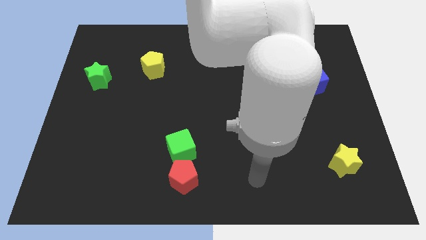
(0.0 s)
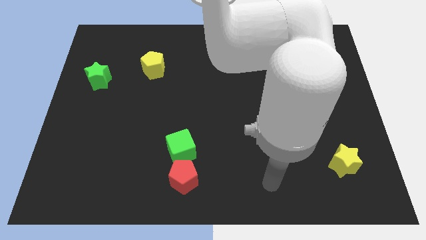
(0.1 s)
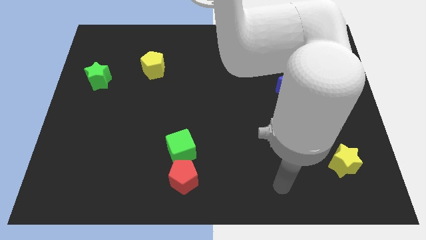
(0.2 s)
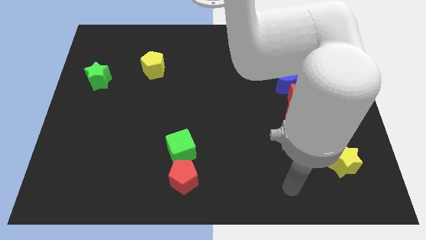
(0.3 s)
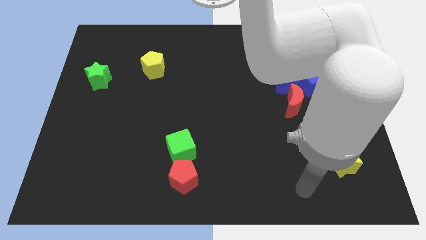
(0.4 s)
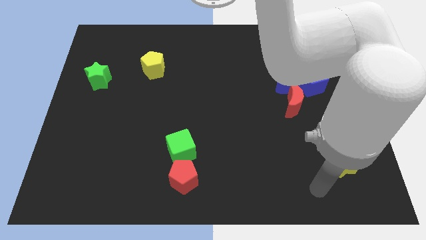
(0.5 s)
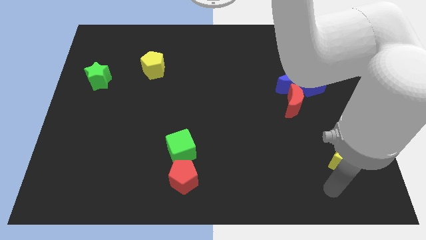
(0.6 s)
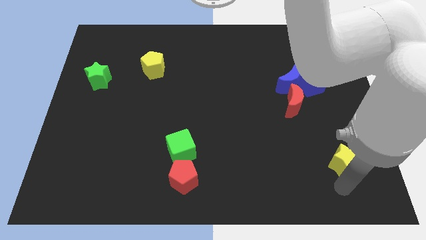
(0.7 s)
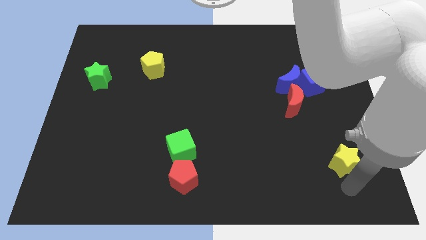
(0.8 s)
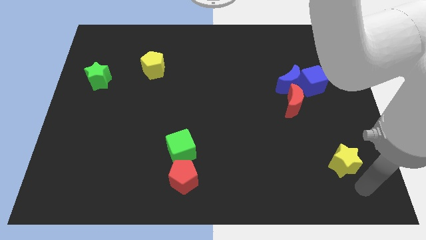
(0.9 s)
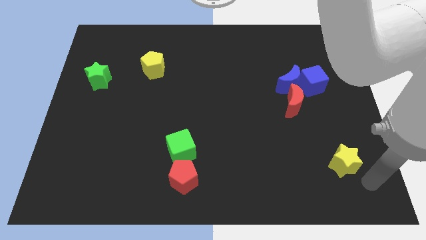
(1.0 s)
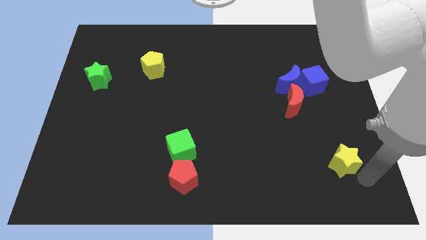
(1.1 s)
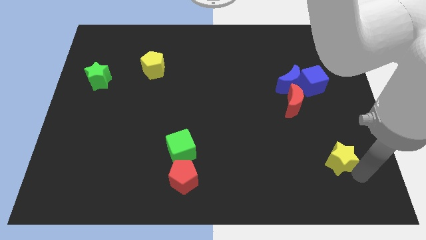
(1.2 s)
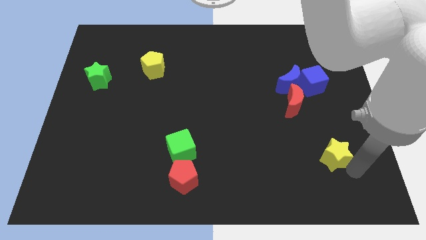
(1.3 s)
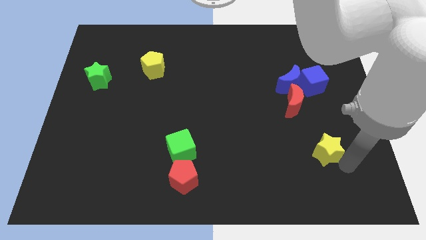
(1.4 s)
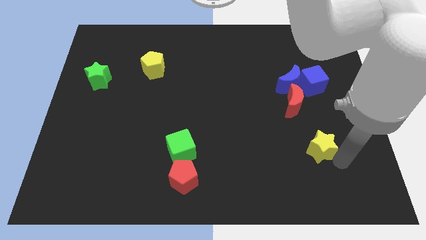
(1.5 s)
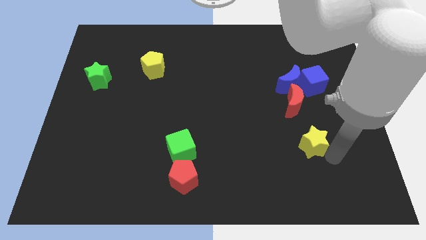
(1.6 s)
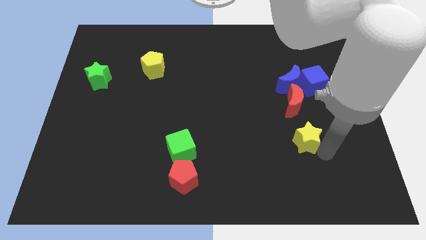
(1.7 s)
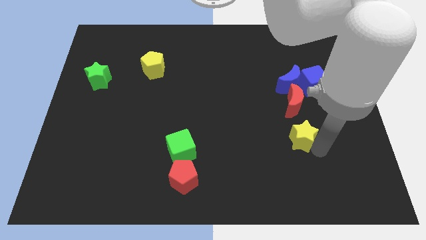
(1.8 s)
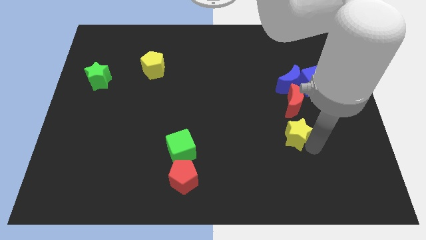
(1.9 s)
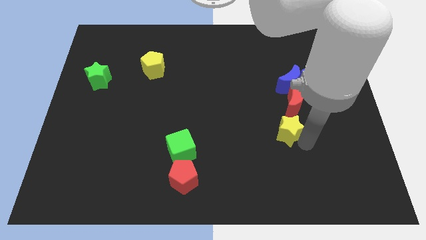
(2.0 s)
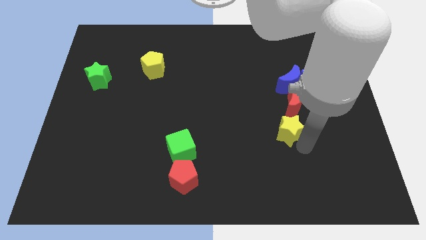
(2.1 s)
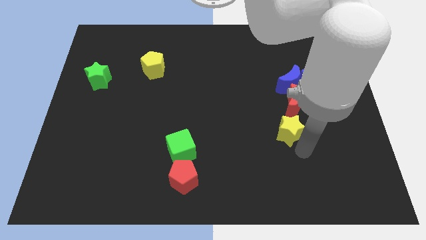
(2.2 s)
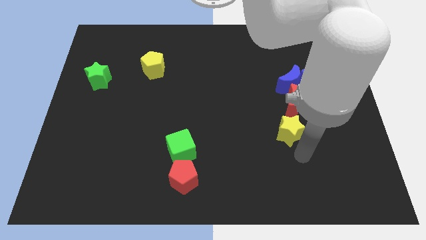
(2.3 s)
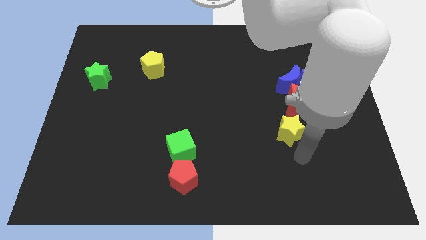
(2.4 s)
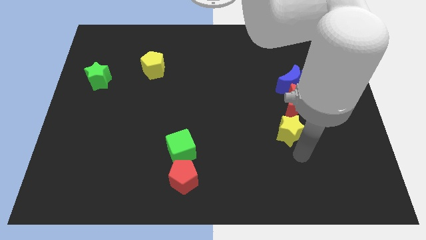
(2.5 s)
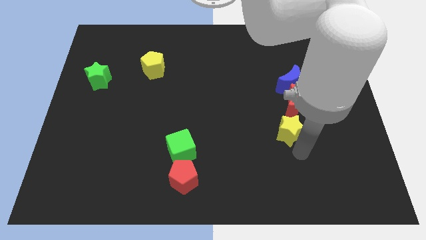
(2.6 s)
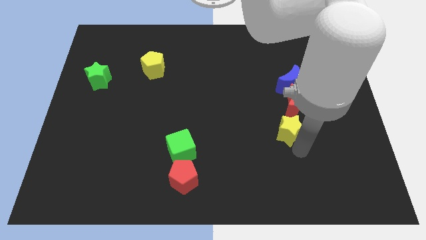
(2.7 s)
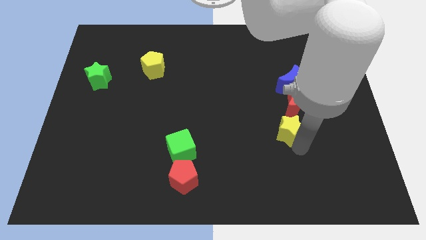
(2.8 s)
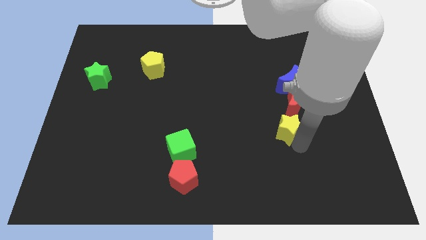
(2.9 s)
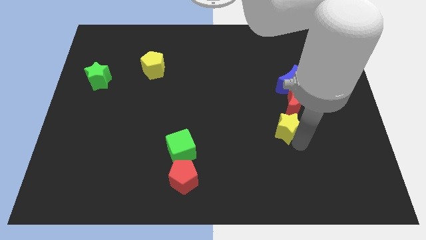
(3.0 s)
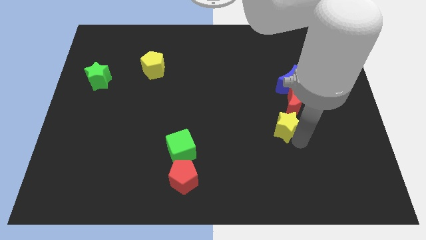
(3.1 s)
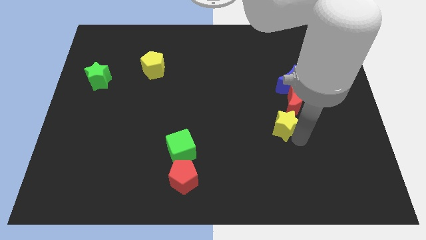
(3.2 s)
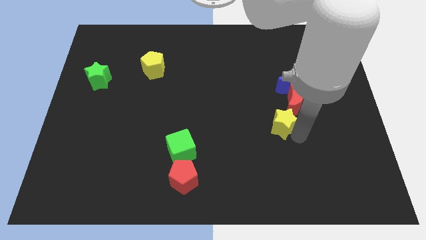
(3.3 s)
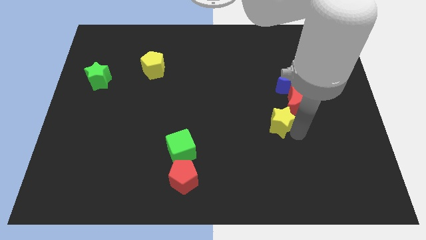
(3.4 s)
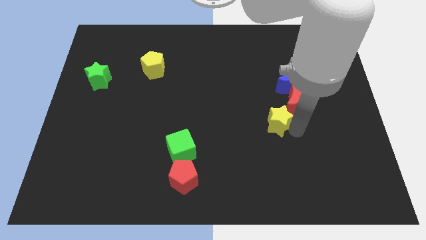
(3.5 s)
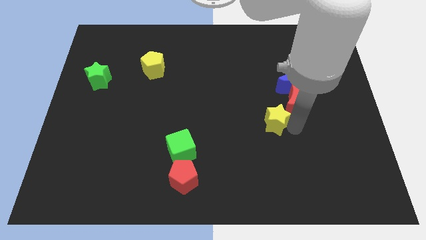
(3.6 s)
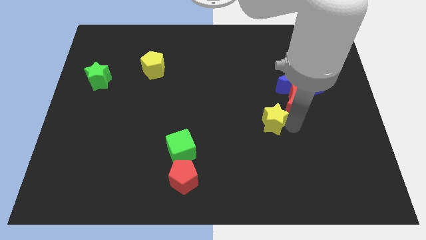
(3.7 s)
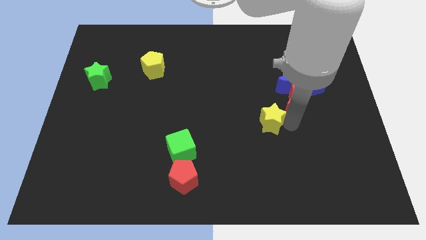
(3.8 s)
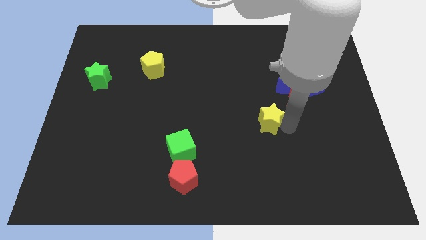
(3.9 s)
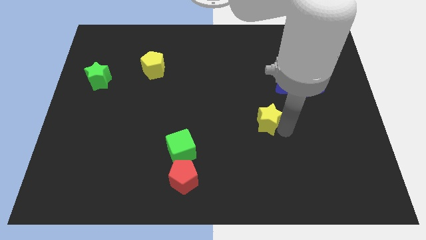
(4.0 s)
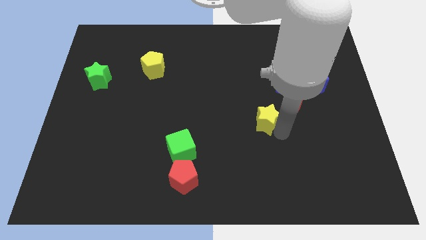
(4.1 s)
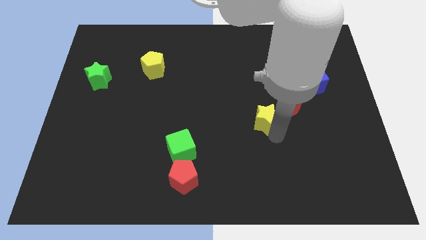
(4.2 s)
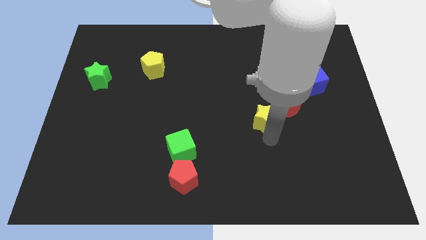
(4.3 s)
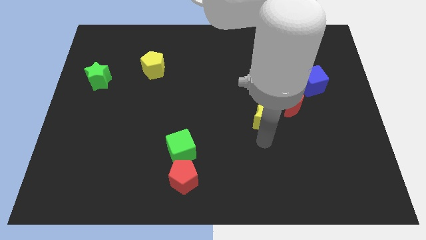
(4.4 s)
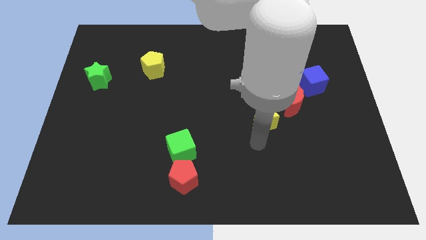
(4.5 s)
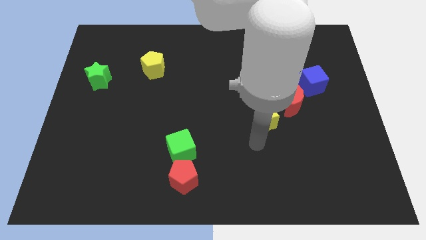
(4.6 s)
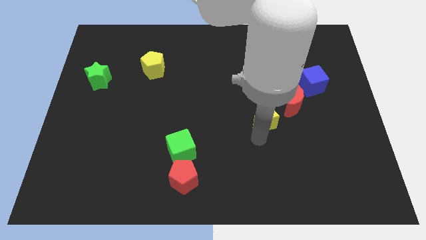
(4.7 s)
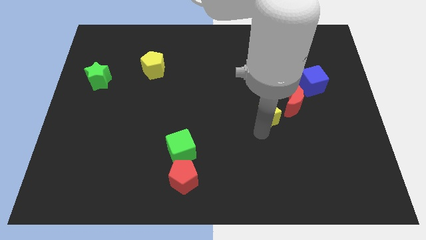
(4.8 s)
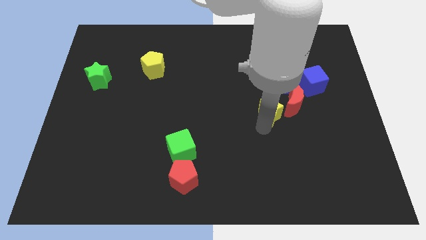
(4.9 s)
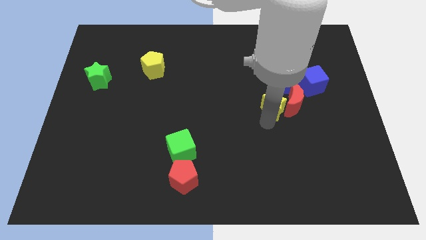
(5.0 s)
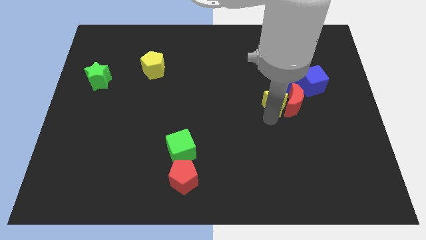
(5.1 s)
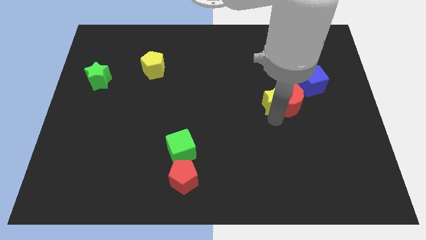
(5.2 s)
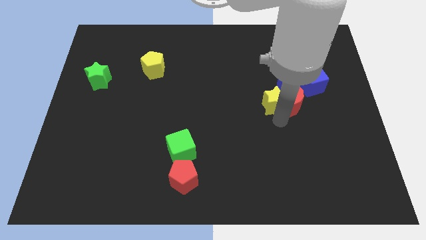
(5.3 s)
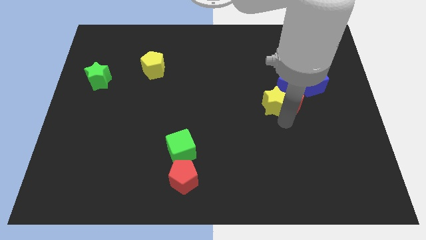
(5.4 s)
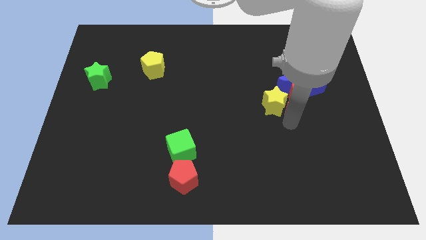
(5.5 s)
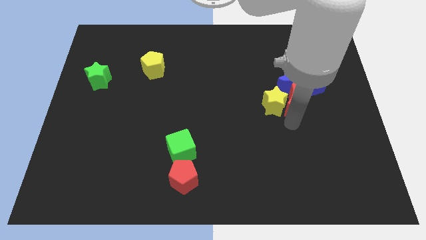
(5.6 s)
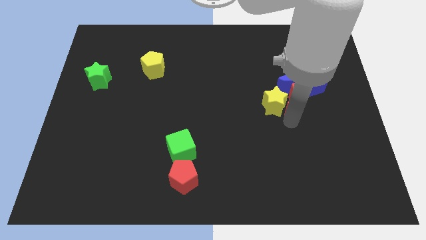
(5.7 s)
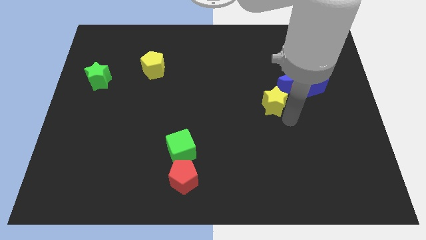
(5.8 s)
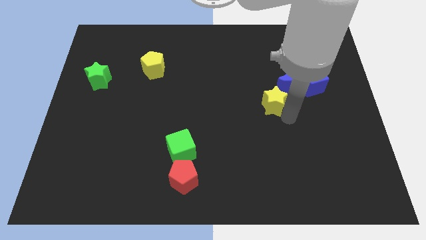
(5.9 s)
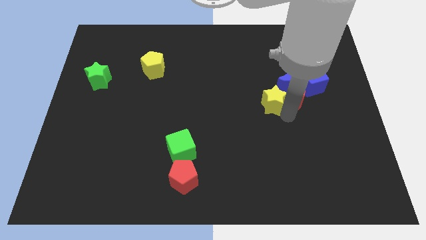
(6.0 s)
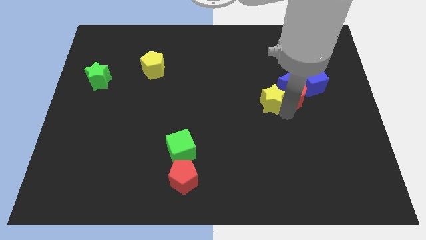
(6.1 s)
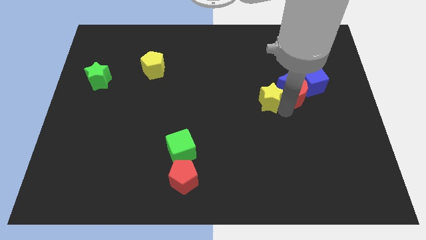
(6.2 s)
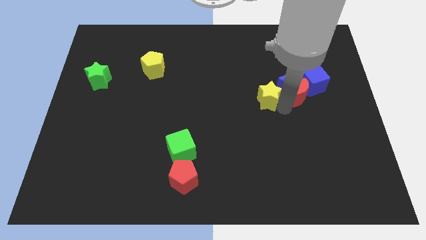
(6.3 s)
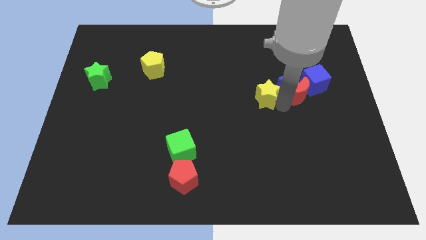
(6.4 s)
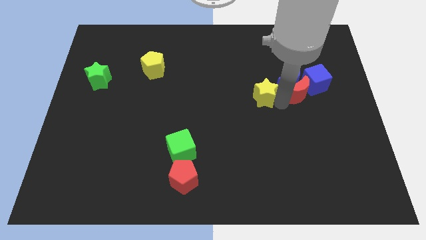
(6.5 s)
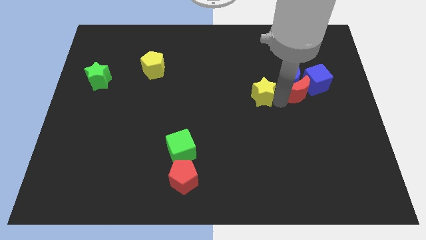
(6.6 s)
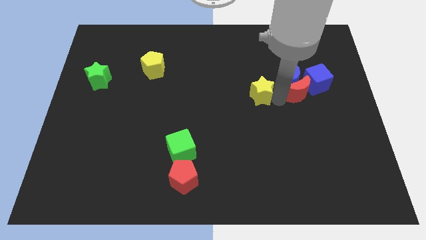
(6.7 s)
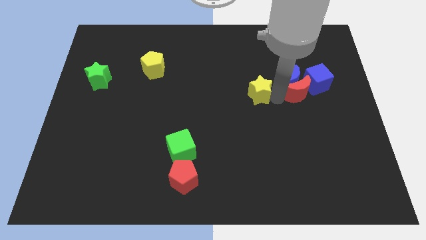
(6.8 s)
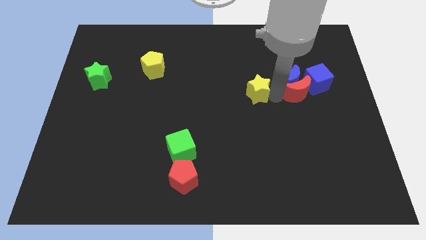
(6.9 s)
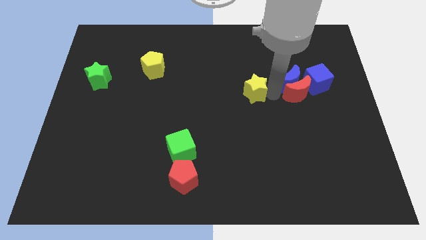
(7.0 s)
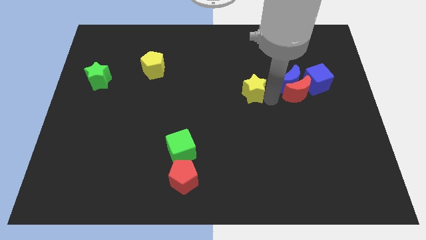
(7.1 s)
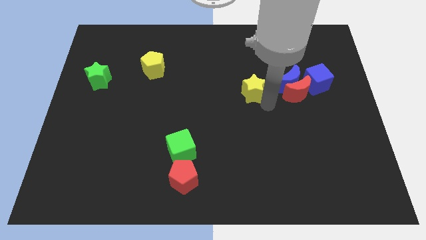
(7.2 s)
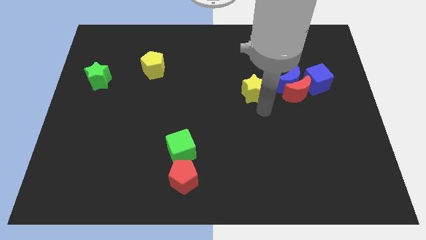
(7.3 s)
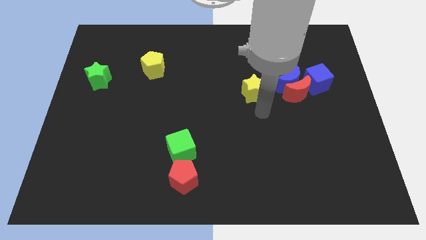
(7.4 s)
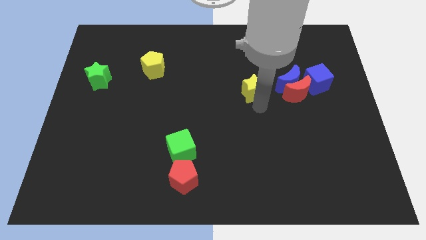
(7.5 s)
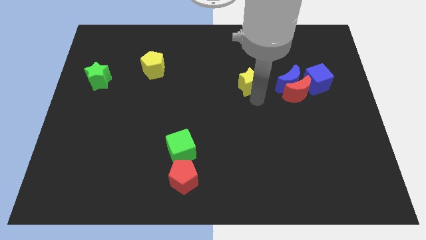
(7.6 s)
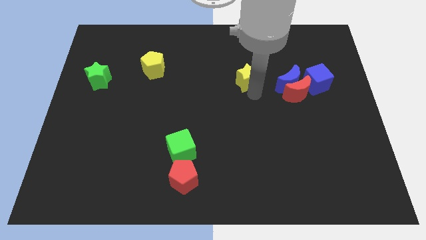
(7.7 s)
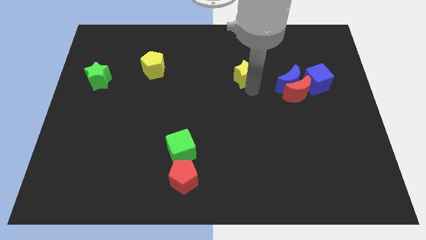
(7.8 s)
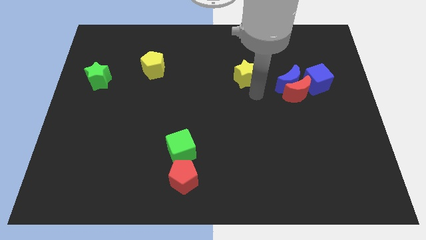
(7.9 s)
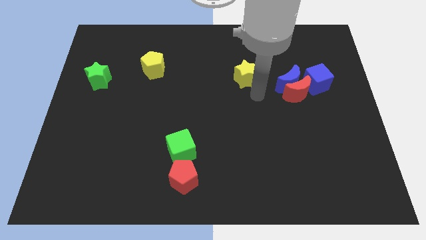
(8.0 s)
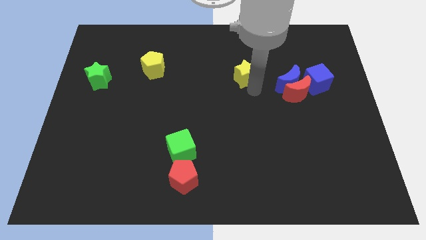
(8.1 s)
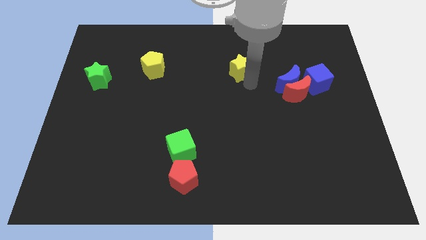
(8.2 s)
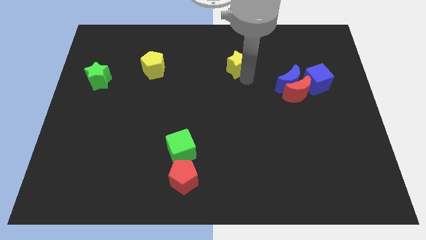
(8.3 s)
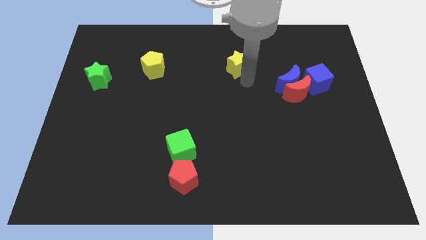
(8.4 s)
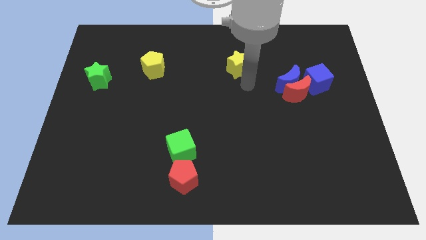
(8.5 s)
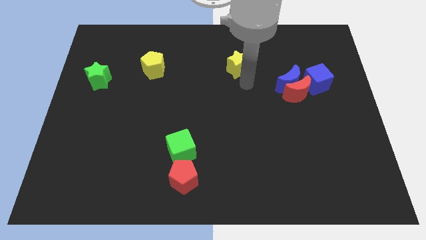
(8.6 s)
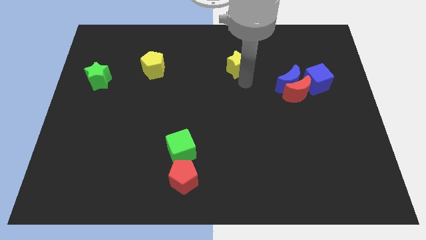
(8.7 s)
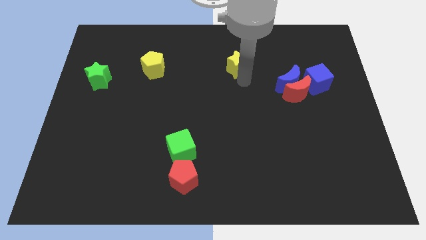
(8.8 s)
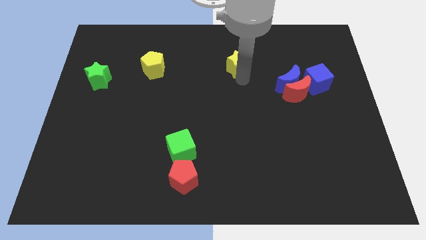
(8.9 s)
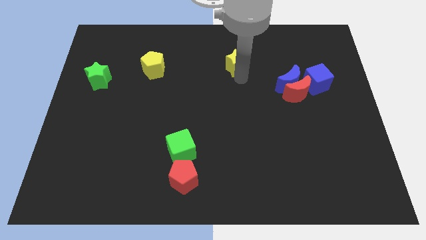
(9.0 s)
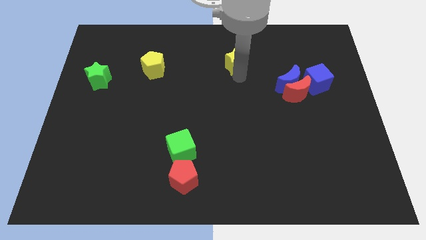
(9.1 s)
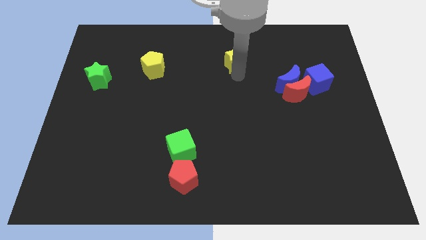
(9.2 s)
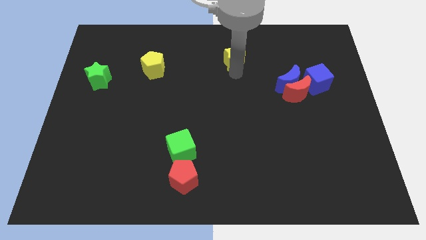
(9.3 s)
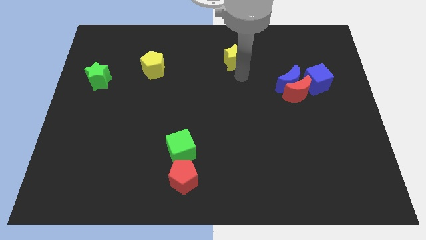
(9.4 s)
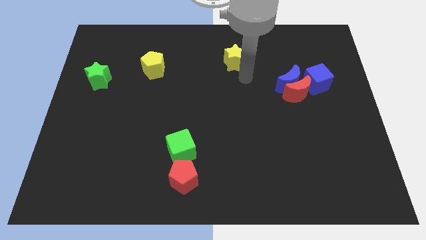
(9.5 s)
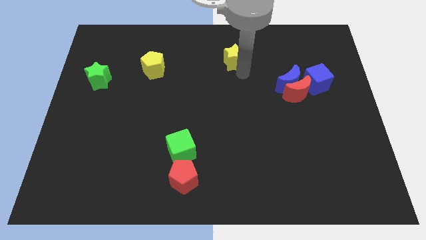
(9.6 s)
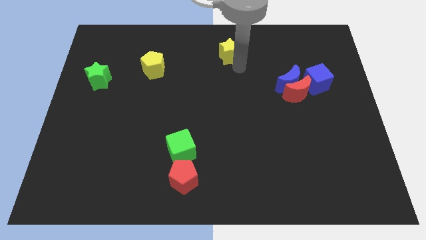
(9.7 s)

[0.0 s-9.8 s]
put the yellow star to the top
